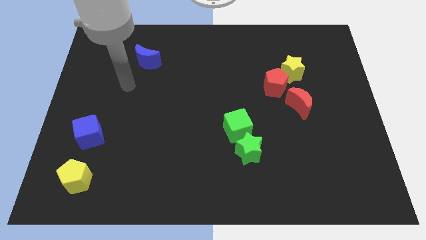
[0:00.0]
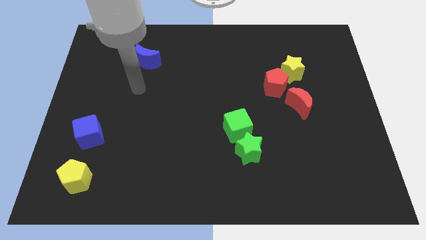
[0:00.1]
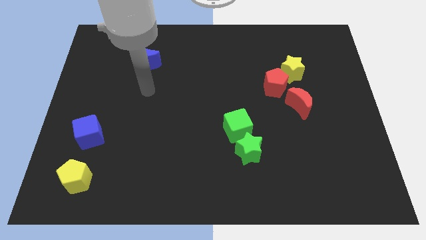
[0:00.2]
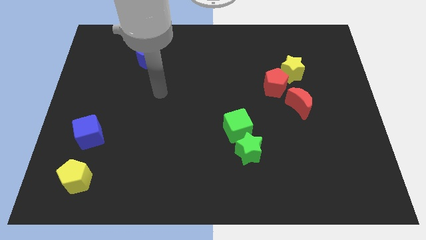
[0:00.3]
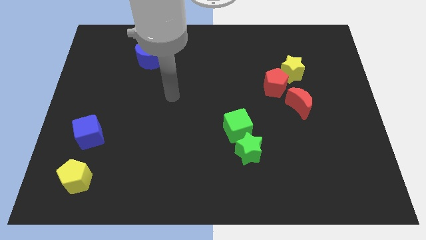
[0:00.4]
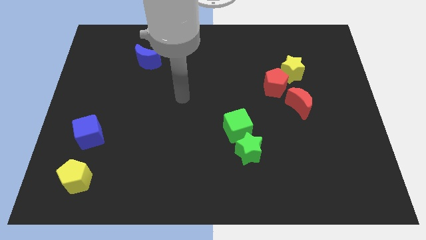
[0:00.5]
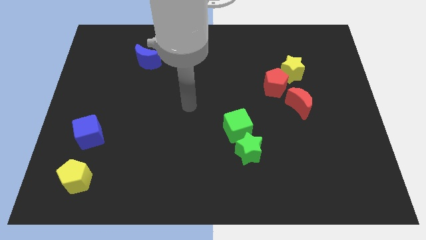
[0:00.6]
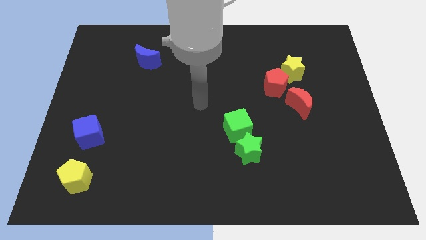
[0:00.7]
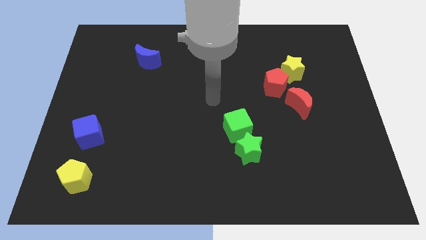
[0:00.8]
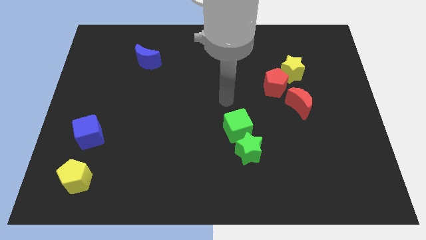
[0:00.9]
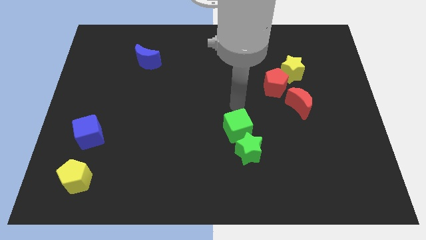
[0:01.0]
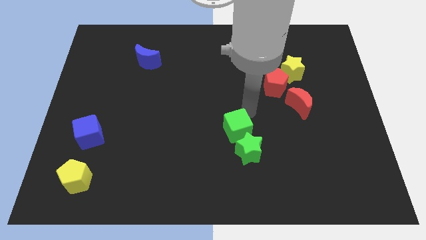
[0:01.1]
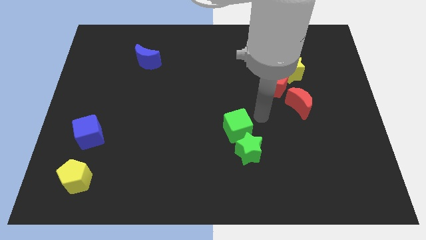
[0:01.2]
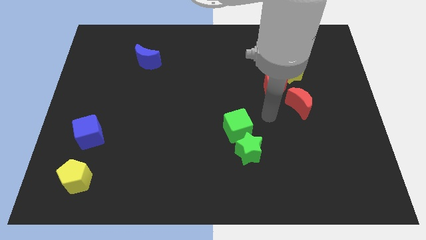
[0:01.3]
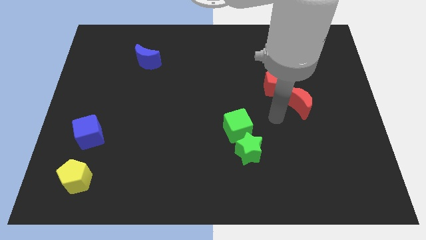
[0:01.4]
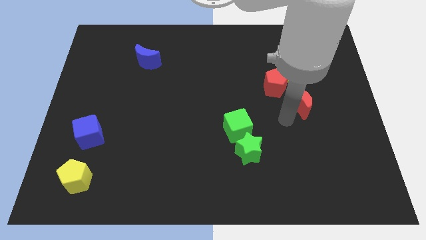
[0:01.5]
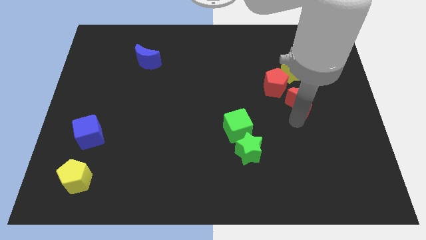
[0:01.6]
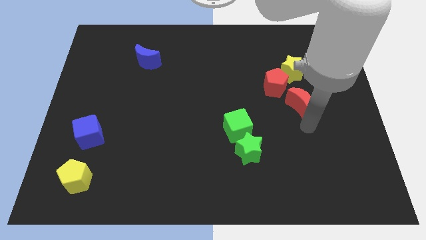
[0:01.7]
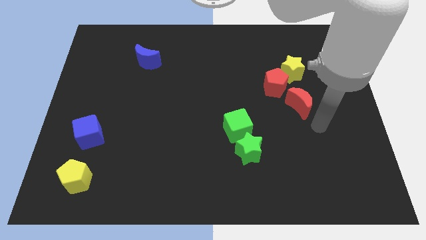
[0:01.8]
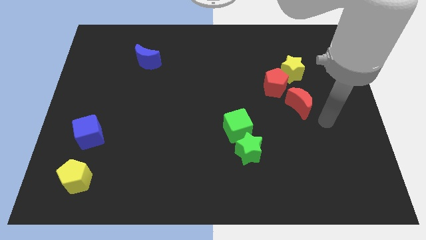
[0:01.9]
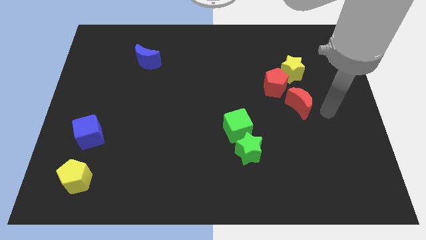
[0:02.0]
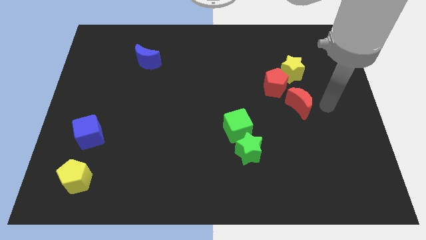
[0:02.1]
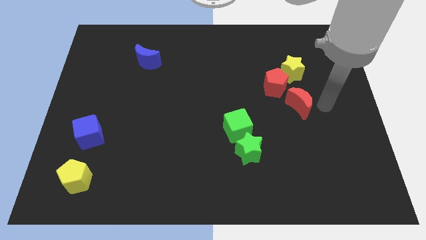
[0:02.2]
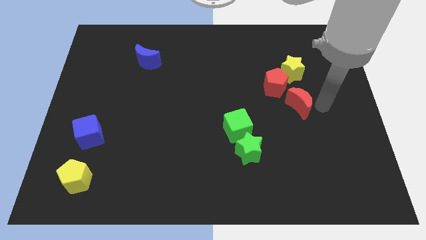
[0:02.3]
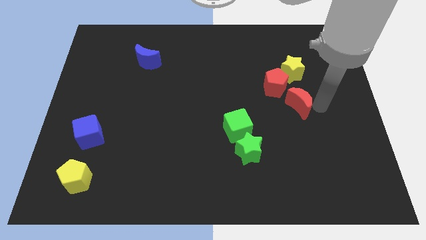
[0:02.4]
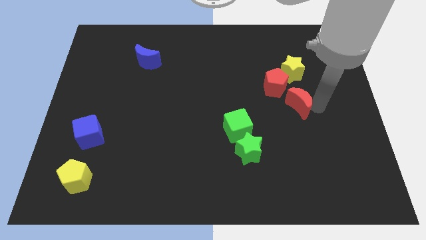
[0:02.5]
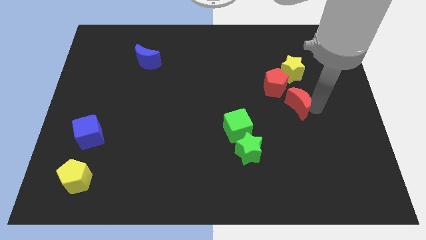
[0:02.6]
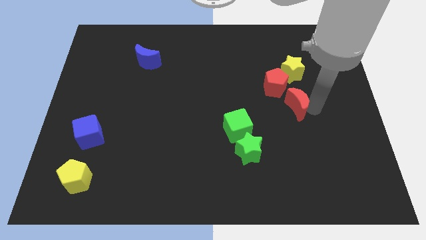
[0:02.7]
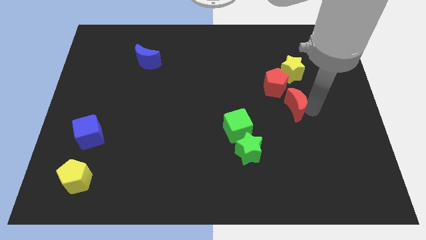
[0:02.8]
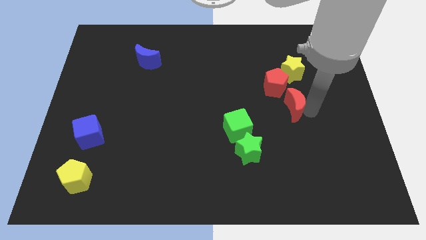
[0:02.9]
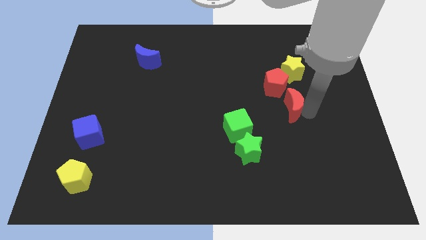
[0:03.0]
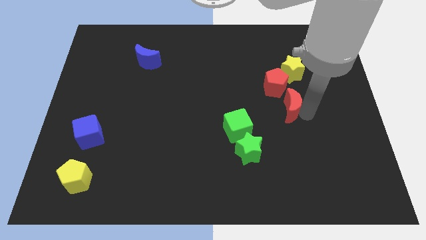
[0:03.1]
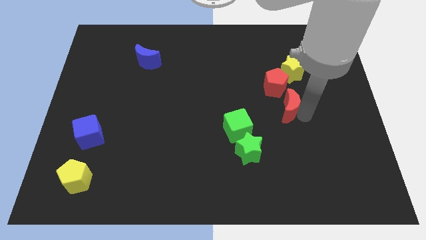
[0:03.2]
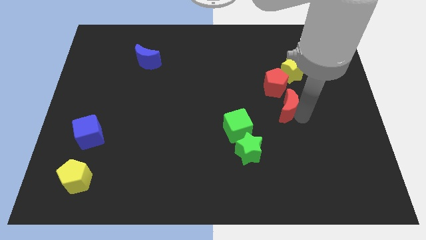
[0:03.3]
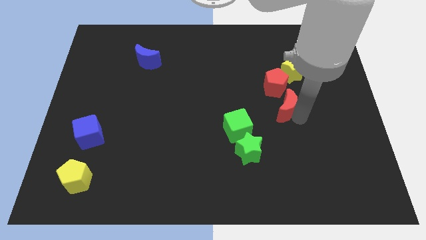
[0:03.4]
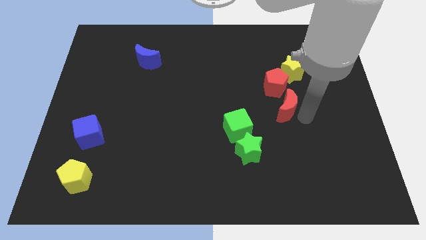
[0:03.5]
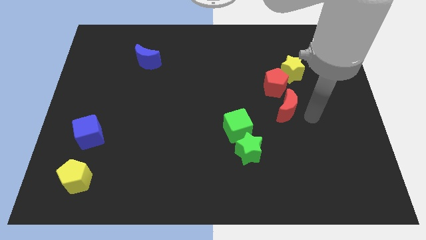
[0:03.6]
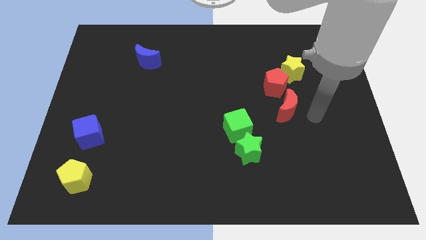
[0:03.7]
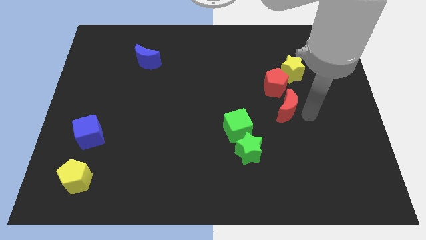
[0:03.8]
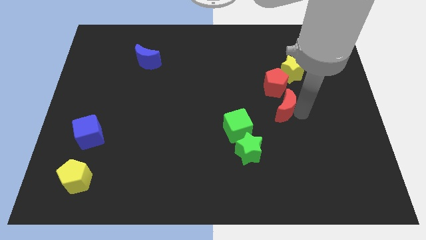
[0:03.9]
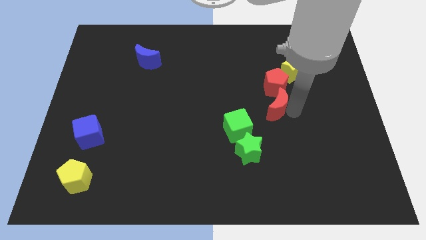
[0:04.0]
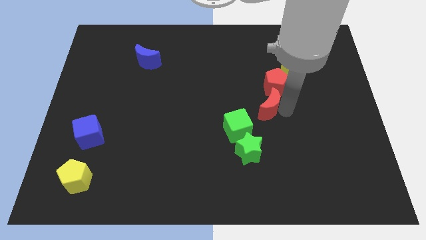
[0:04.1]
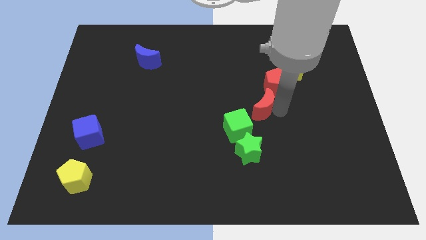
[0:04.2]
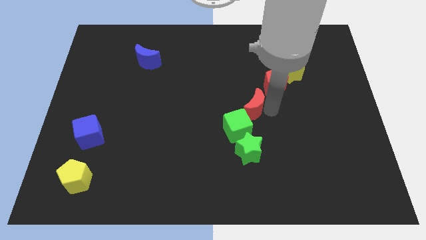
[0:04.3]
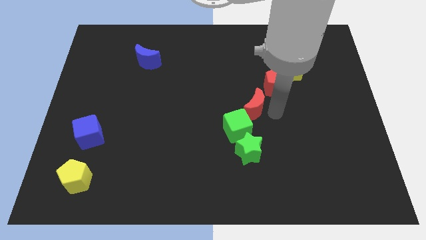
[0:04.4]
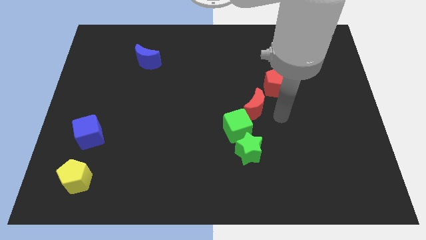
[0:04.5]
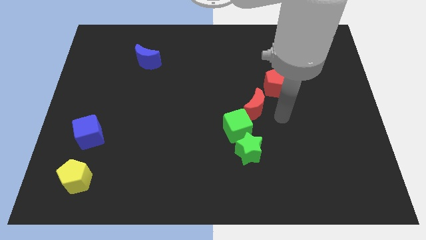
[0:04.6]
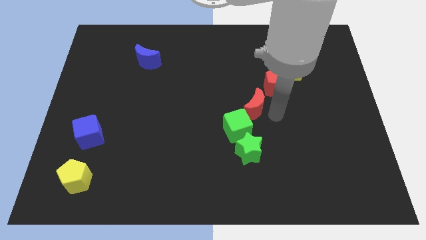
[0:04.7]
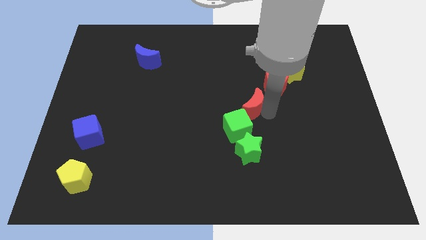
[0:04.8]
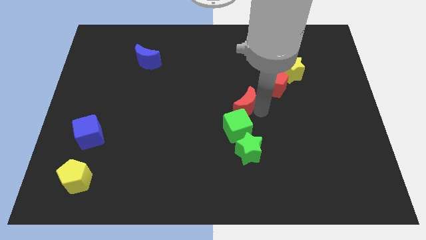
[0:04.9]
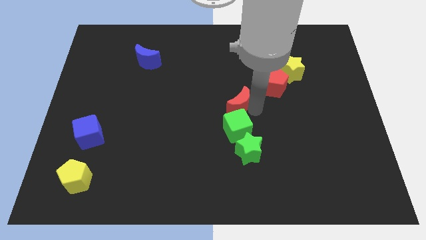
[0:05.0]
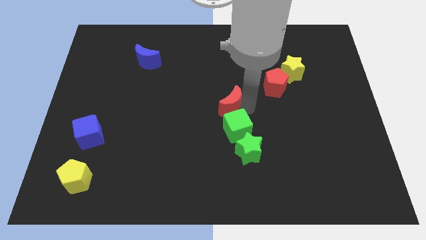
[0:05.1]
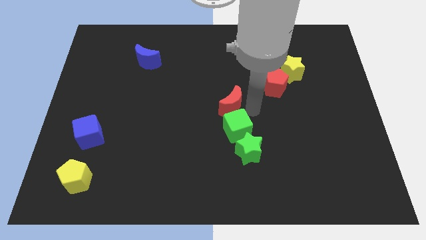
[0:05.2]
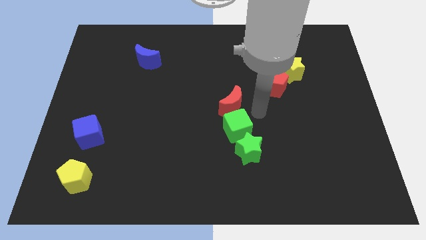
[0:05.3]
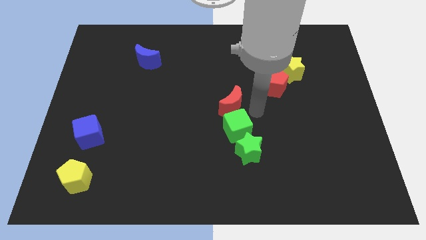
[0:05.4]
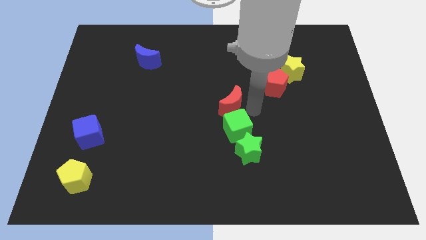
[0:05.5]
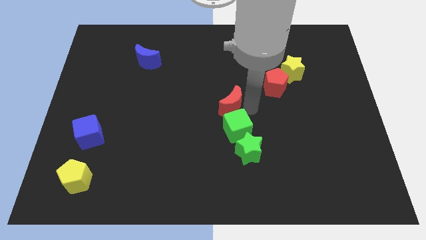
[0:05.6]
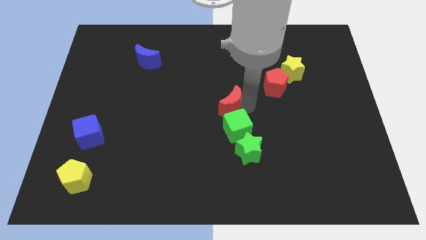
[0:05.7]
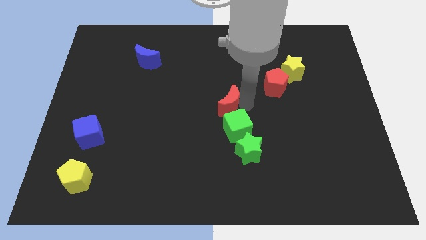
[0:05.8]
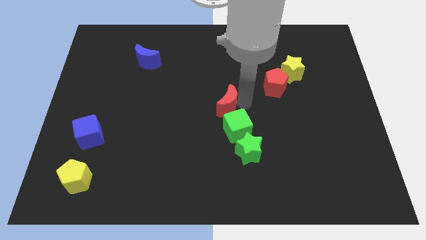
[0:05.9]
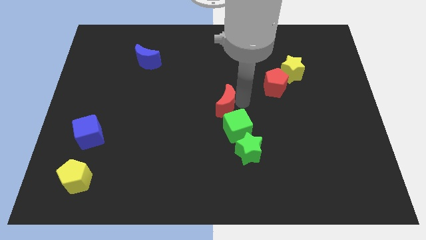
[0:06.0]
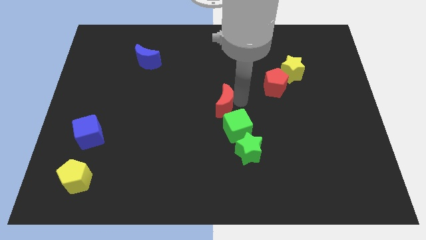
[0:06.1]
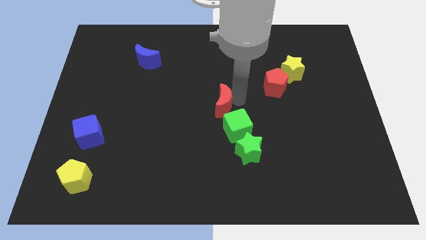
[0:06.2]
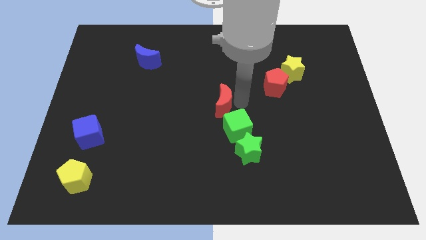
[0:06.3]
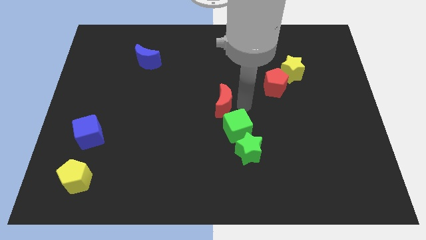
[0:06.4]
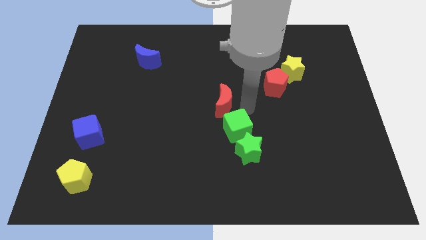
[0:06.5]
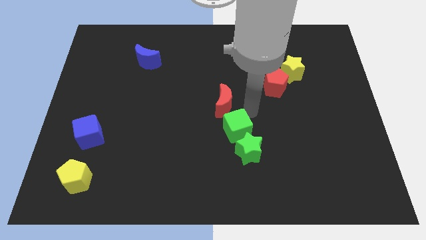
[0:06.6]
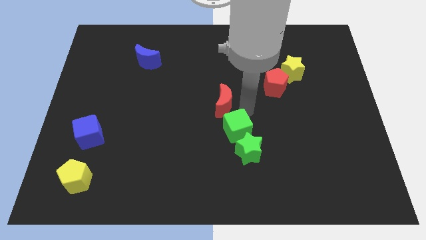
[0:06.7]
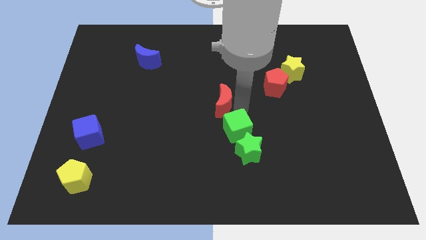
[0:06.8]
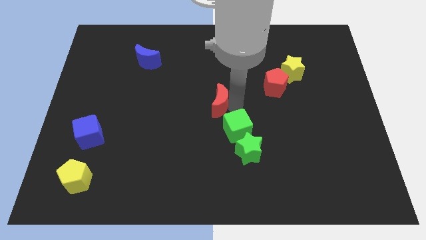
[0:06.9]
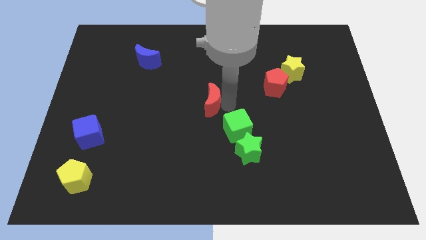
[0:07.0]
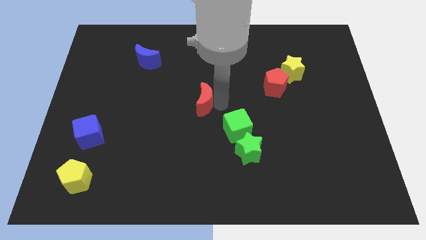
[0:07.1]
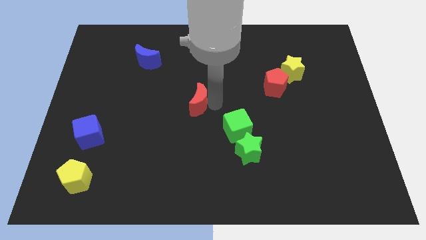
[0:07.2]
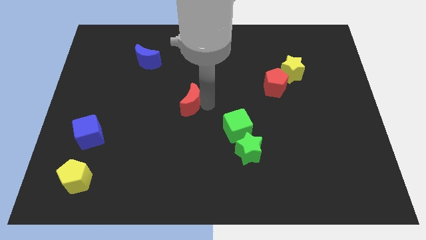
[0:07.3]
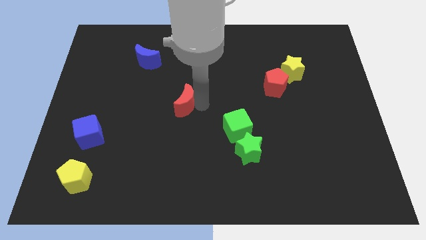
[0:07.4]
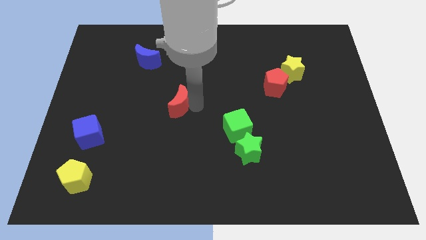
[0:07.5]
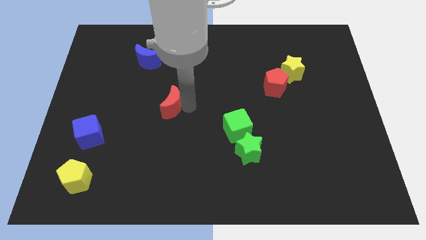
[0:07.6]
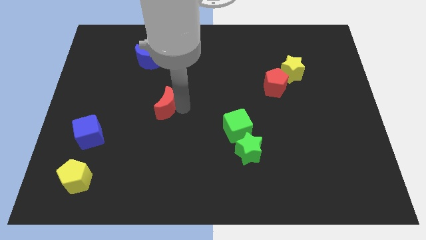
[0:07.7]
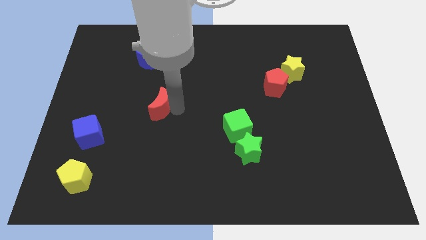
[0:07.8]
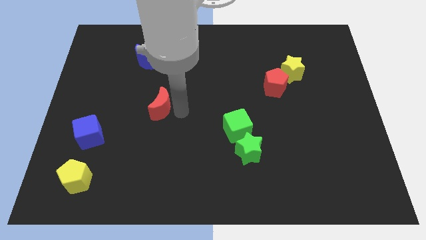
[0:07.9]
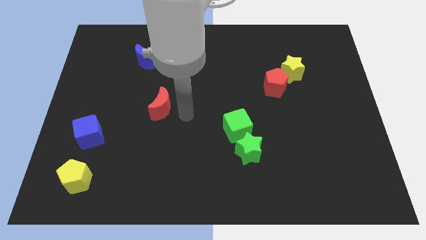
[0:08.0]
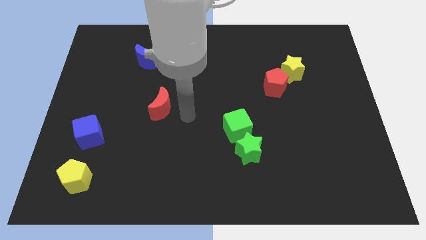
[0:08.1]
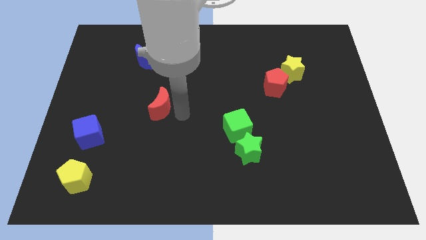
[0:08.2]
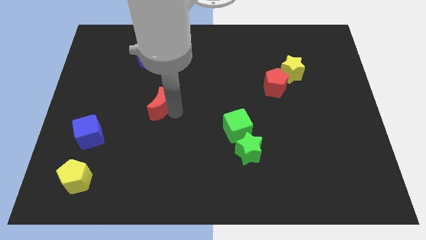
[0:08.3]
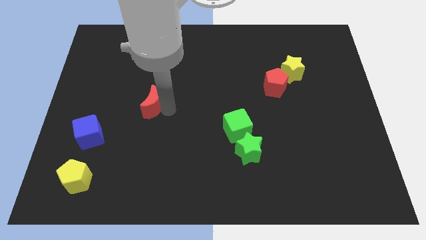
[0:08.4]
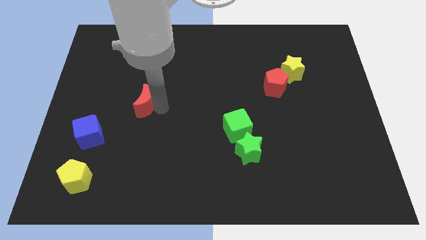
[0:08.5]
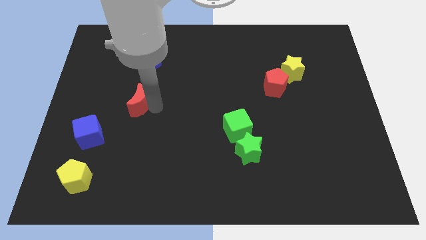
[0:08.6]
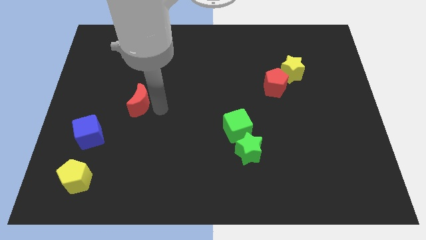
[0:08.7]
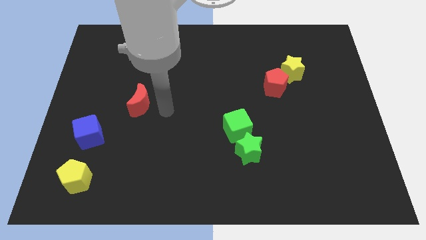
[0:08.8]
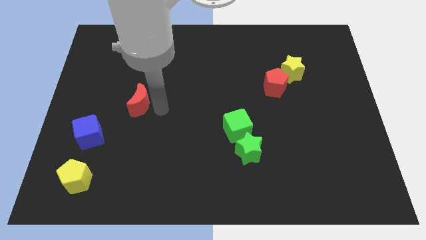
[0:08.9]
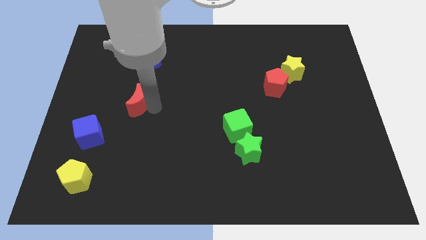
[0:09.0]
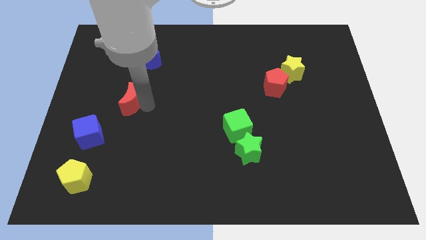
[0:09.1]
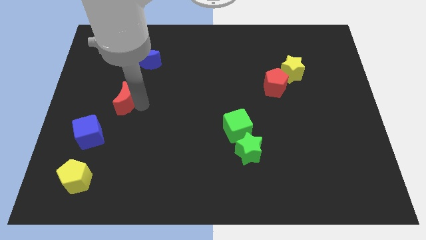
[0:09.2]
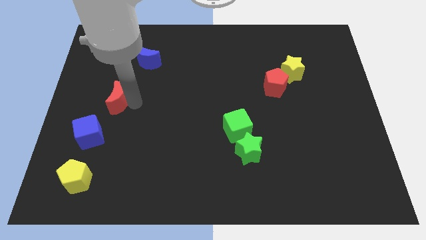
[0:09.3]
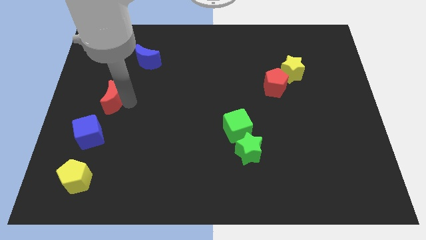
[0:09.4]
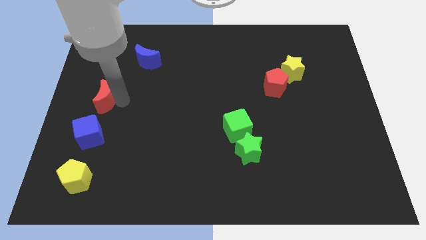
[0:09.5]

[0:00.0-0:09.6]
push the red moon to the left side of the board
